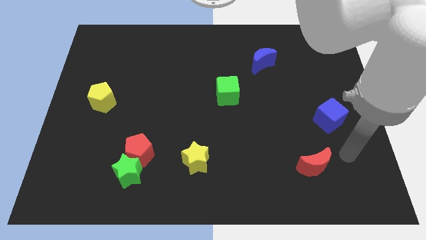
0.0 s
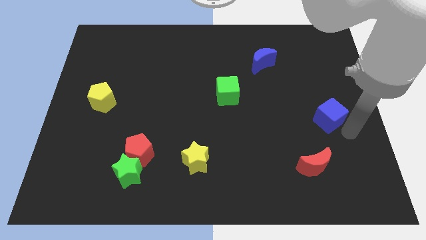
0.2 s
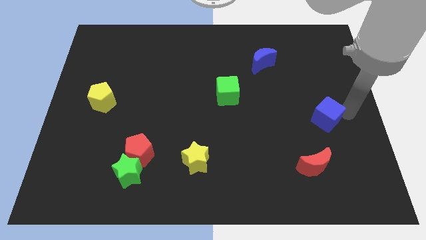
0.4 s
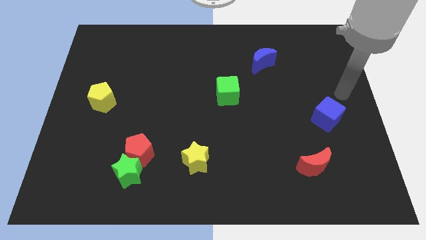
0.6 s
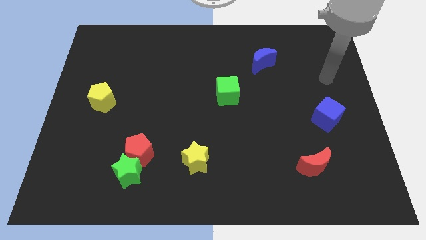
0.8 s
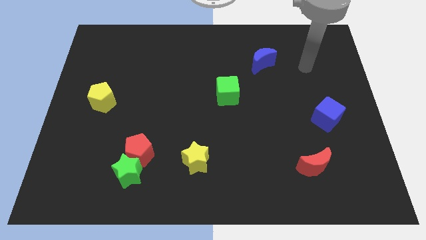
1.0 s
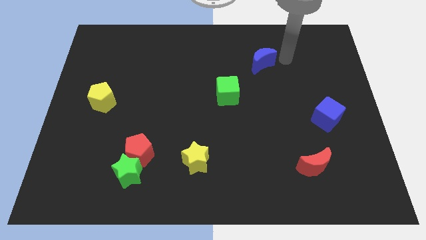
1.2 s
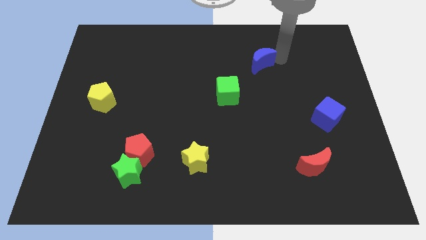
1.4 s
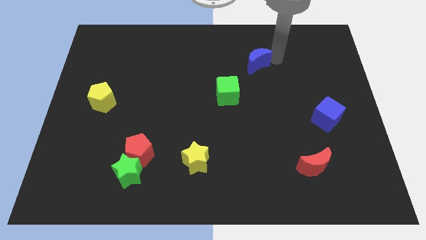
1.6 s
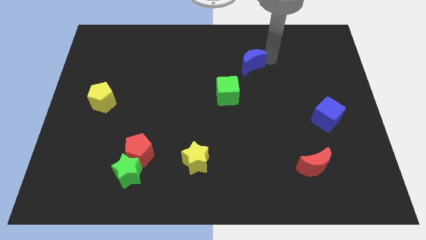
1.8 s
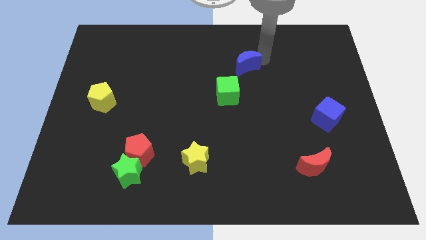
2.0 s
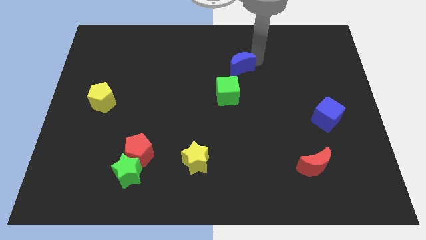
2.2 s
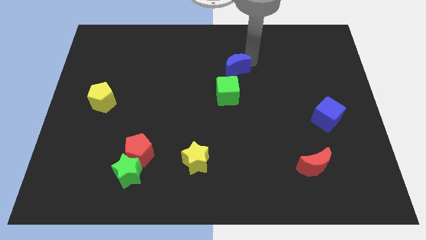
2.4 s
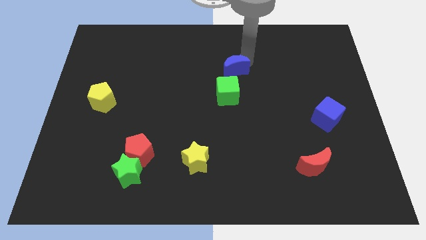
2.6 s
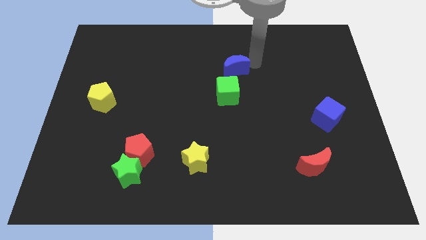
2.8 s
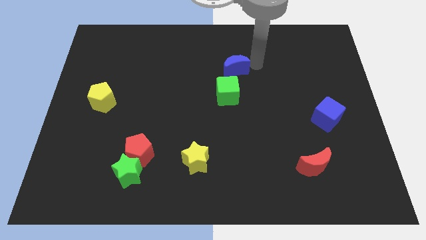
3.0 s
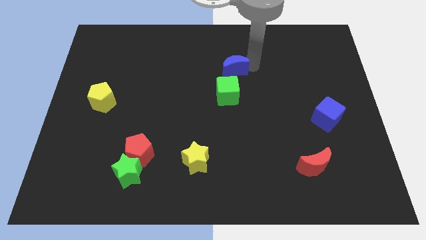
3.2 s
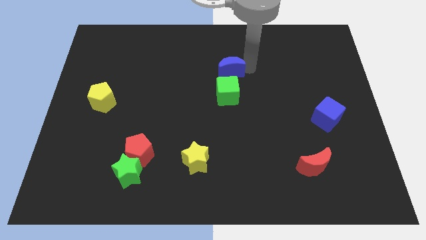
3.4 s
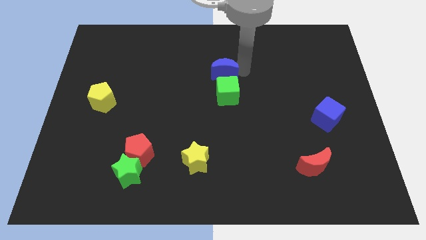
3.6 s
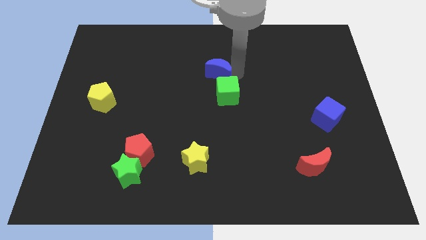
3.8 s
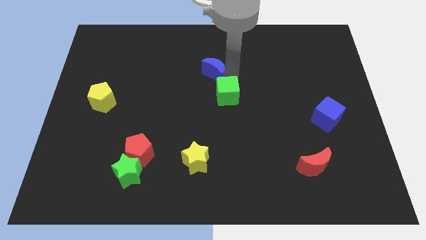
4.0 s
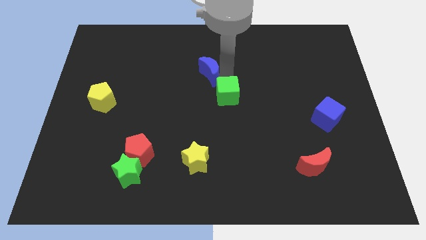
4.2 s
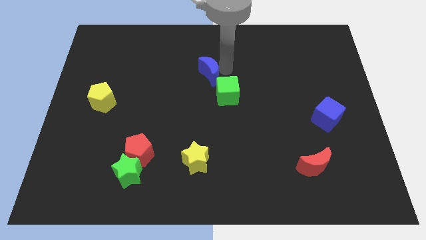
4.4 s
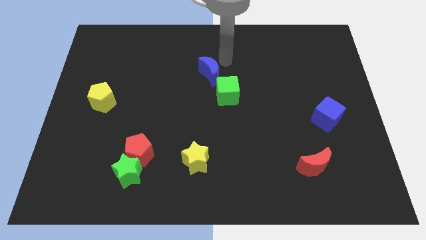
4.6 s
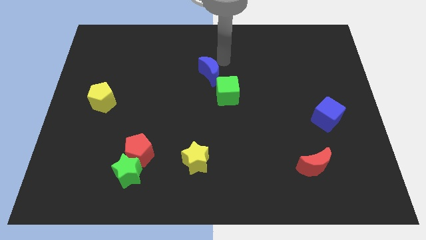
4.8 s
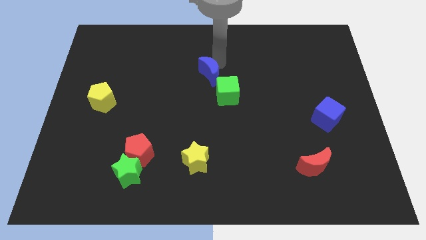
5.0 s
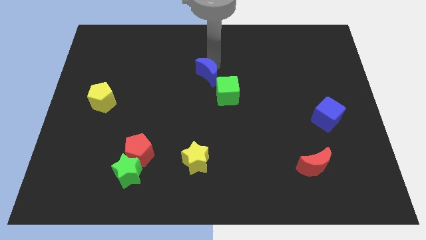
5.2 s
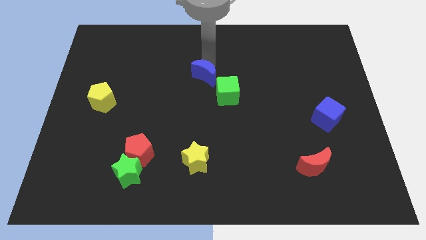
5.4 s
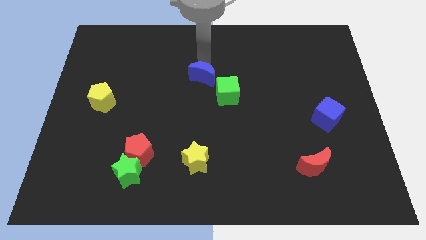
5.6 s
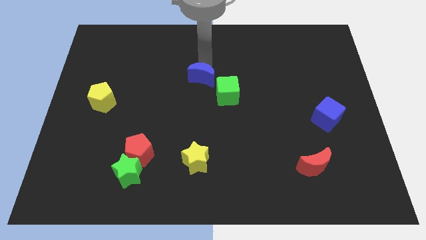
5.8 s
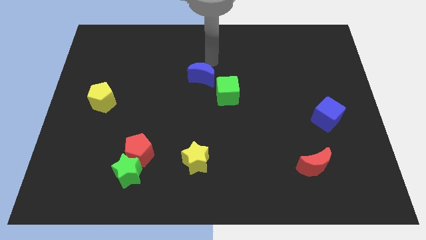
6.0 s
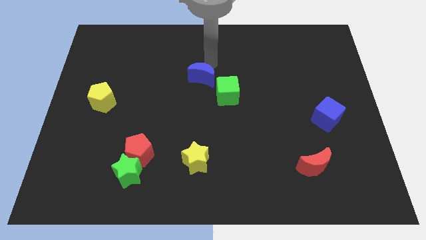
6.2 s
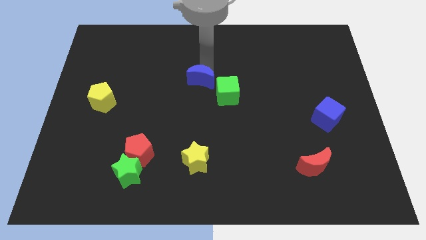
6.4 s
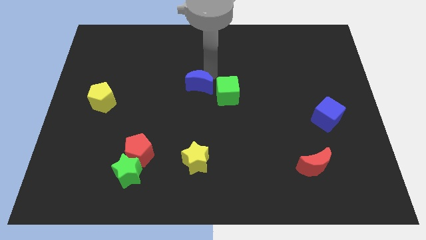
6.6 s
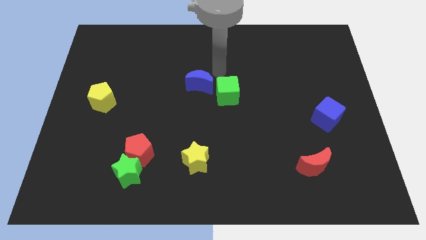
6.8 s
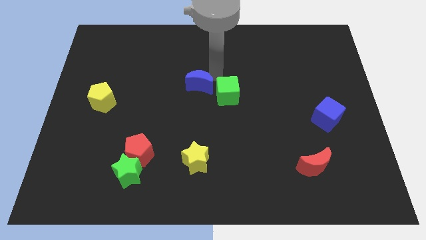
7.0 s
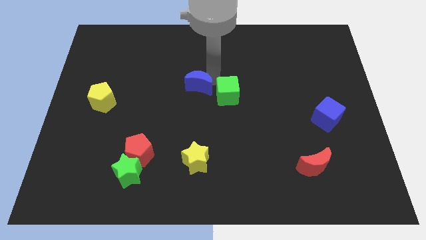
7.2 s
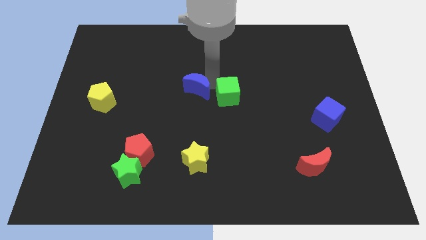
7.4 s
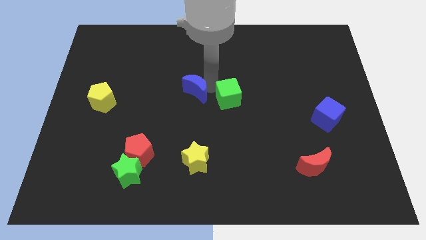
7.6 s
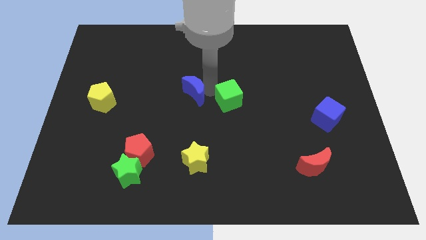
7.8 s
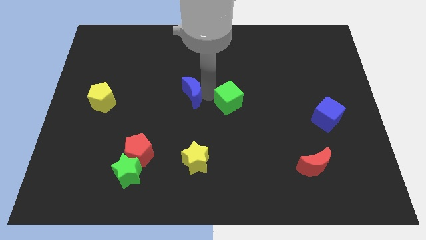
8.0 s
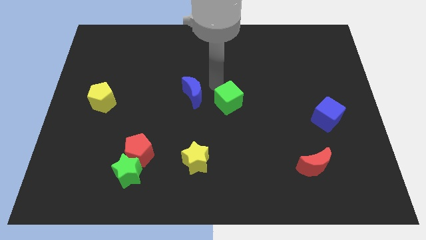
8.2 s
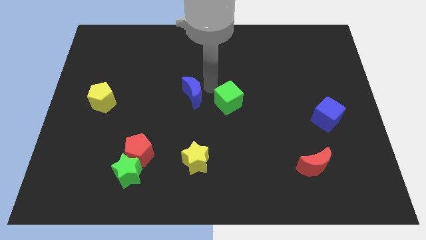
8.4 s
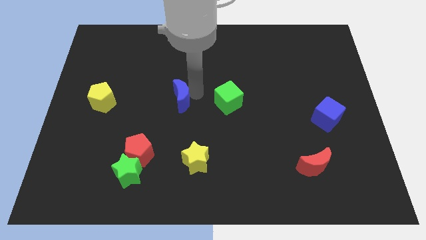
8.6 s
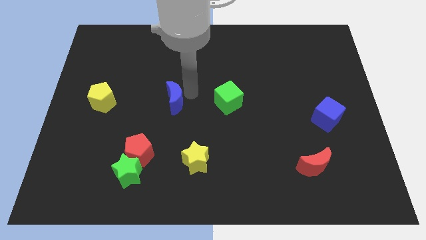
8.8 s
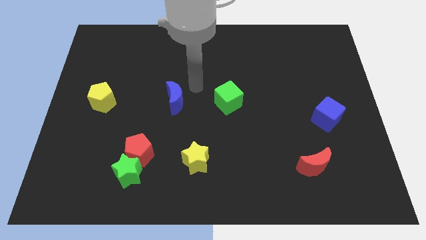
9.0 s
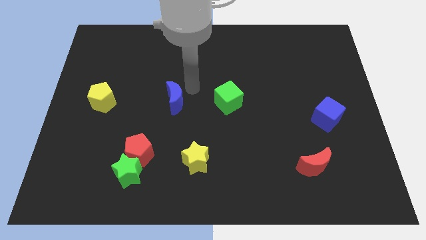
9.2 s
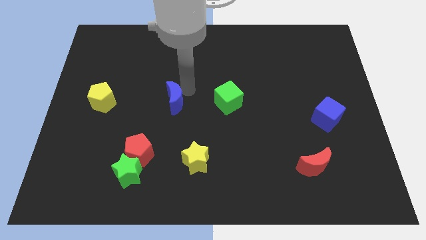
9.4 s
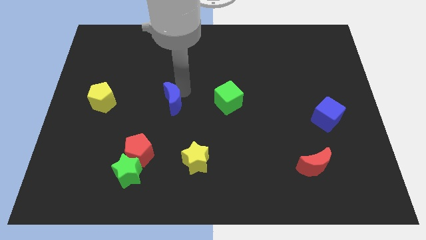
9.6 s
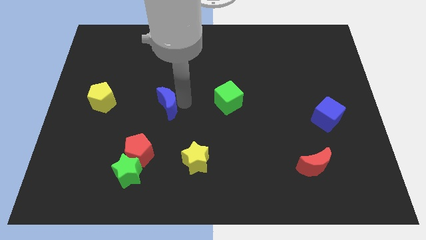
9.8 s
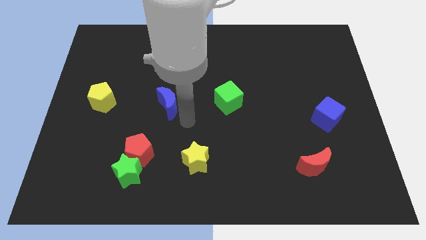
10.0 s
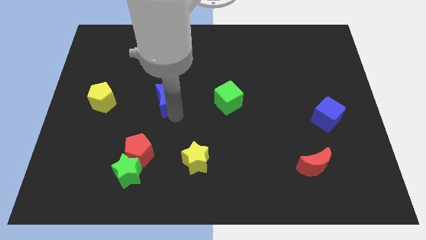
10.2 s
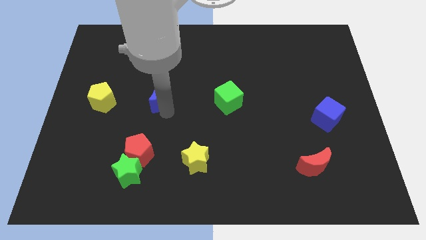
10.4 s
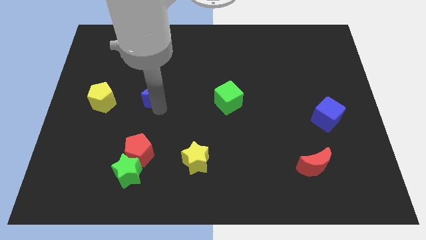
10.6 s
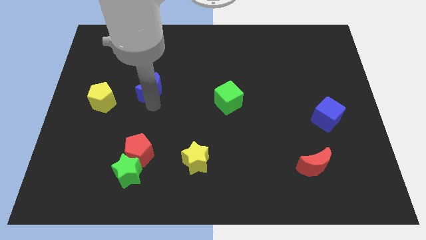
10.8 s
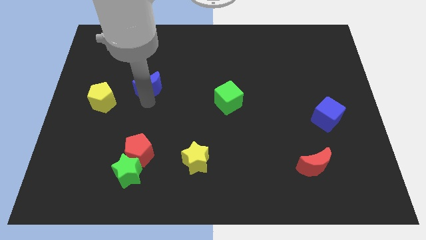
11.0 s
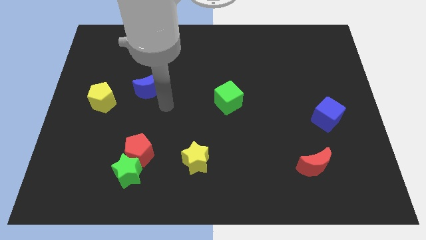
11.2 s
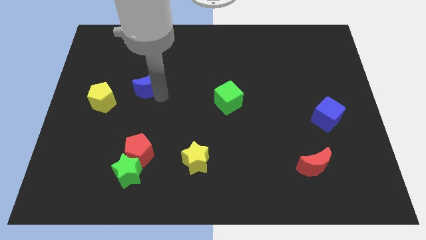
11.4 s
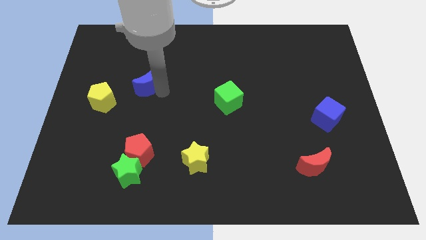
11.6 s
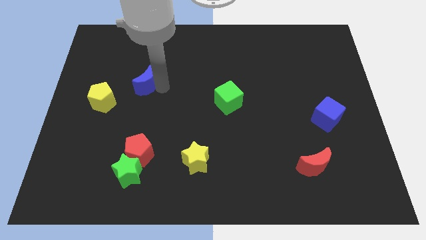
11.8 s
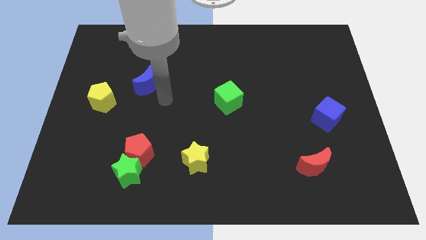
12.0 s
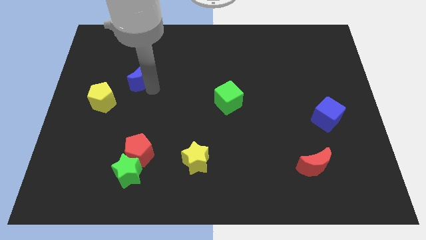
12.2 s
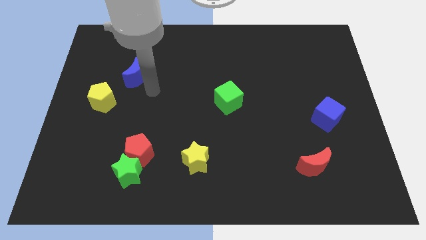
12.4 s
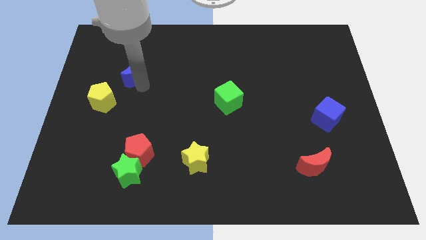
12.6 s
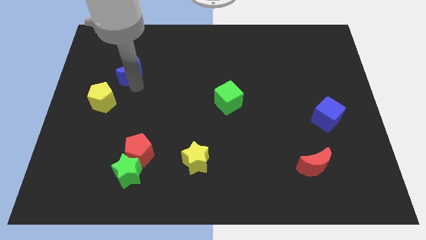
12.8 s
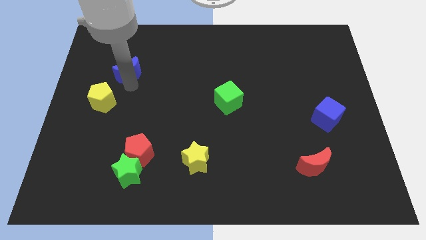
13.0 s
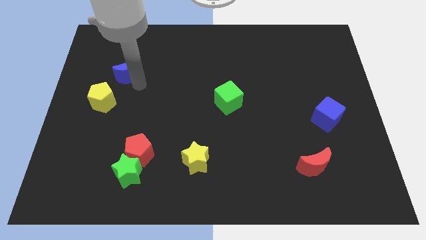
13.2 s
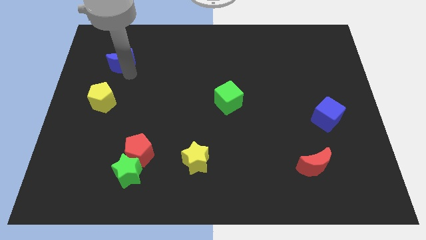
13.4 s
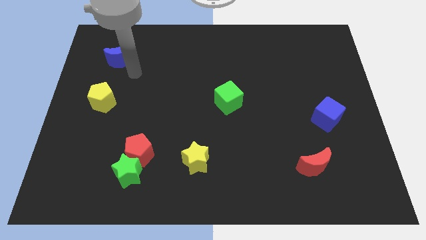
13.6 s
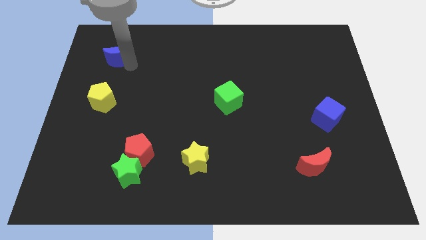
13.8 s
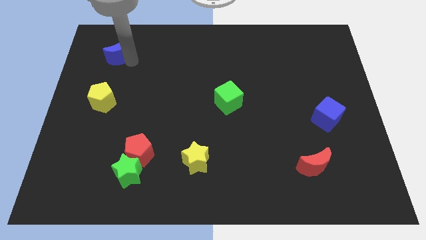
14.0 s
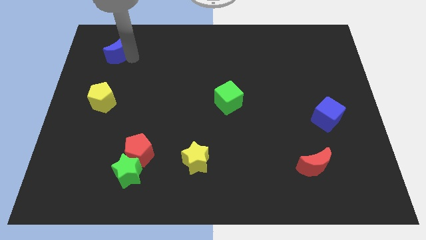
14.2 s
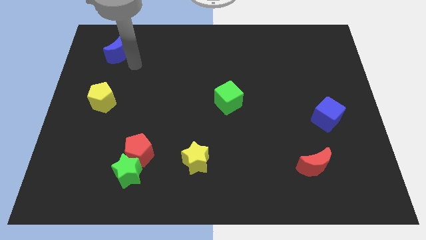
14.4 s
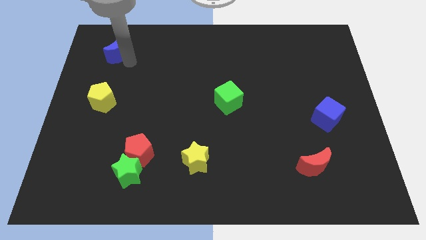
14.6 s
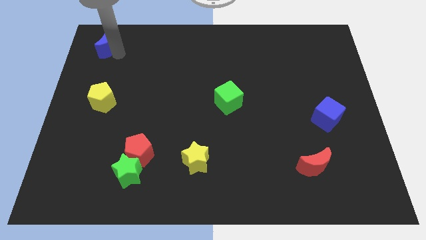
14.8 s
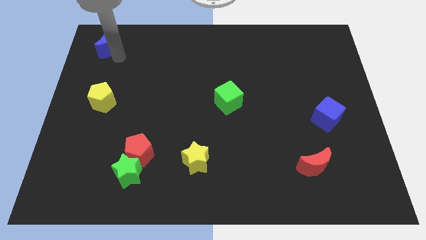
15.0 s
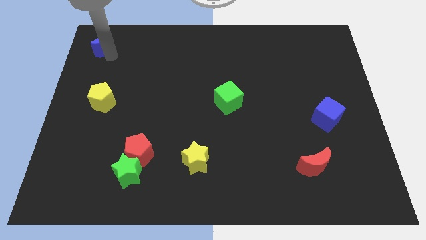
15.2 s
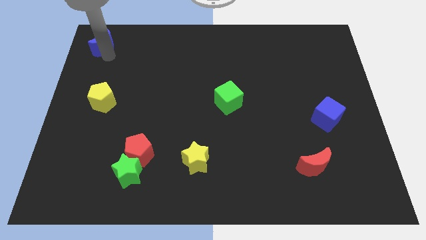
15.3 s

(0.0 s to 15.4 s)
slide the blue moon to the top left of the board
